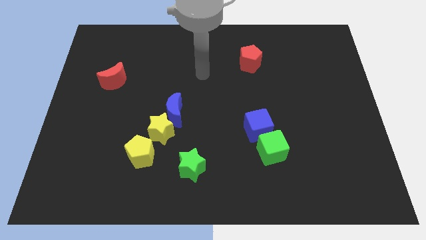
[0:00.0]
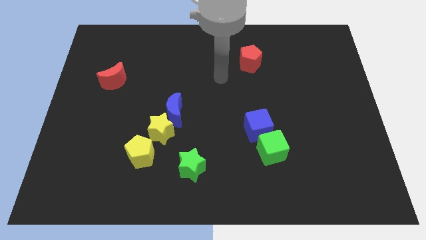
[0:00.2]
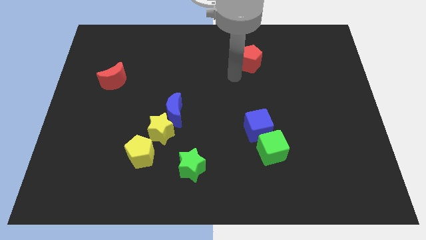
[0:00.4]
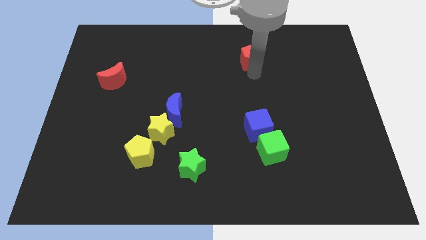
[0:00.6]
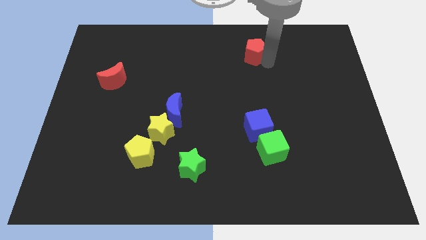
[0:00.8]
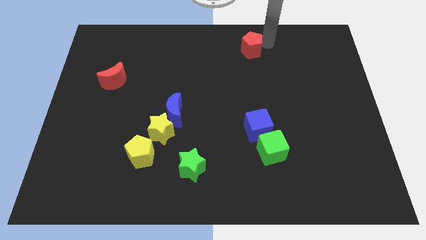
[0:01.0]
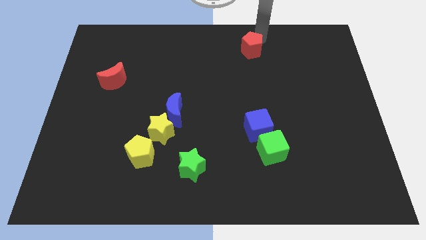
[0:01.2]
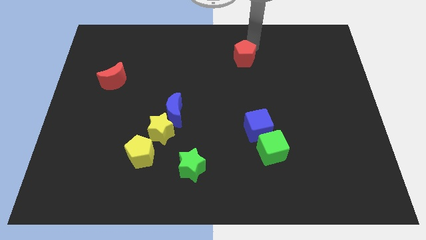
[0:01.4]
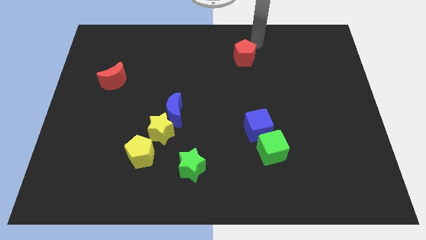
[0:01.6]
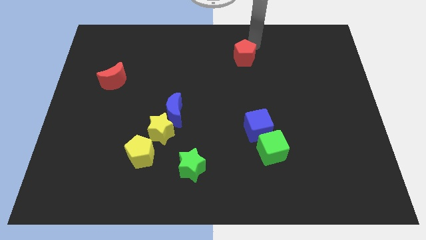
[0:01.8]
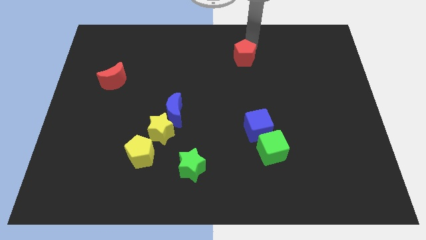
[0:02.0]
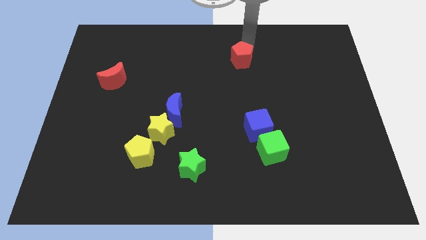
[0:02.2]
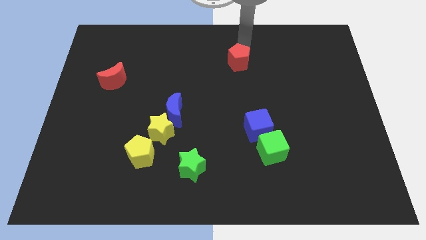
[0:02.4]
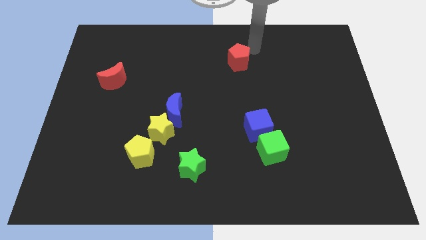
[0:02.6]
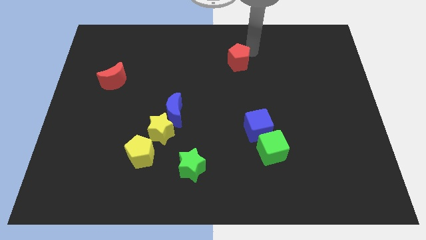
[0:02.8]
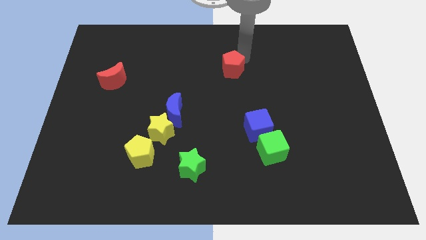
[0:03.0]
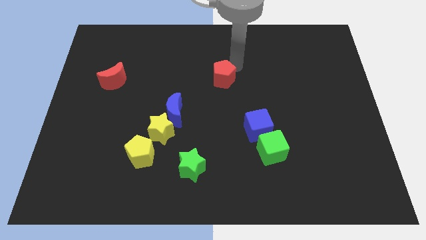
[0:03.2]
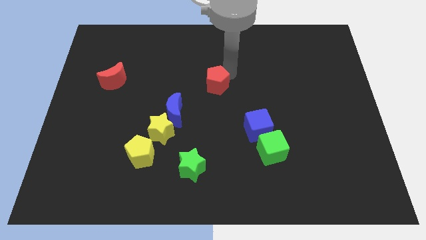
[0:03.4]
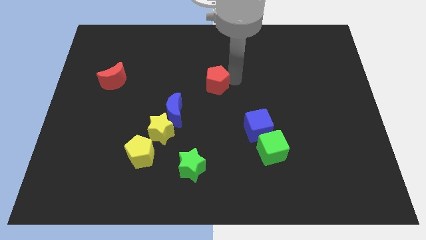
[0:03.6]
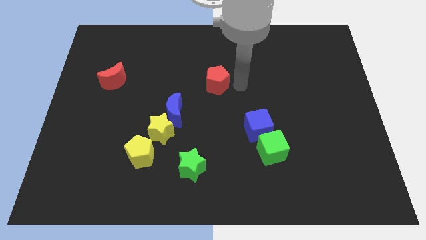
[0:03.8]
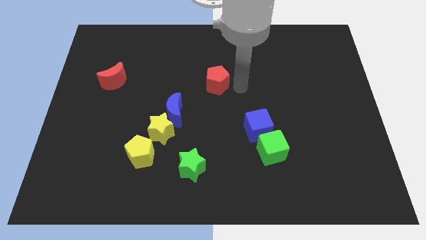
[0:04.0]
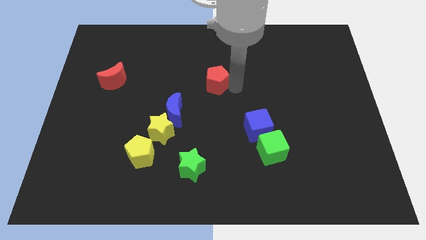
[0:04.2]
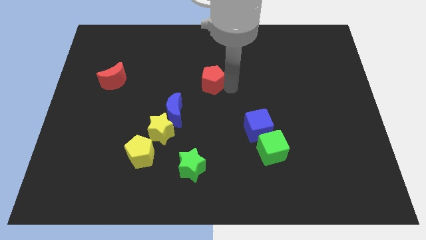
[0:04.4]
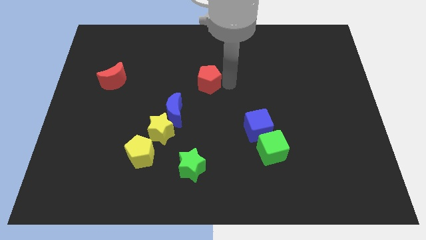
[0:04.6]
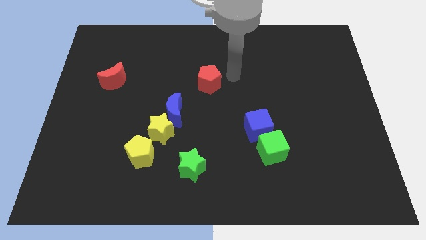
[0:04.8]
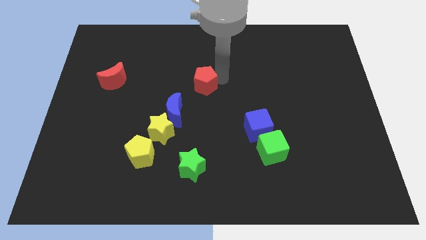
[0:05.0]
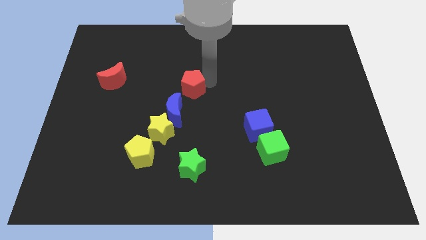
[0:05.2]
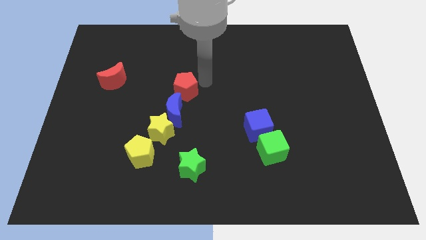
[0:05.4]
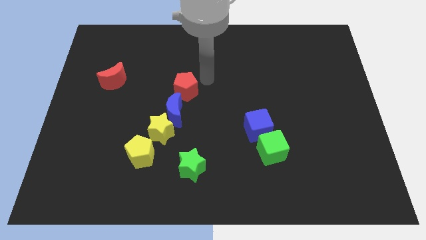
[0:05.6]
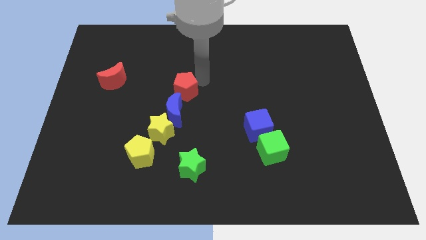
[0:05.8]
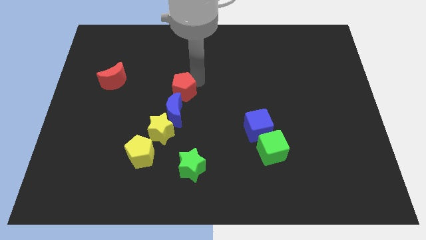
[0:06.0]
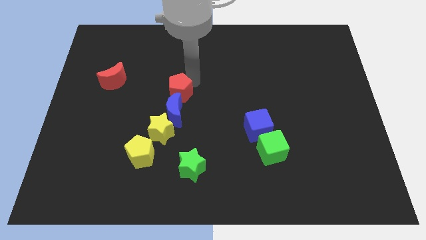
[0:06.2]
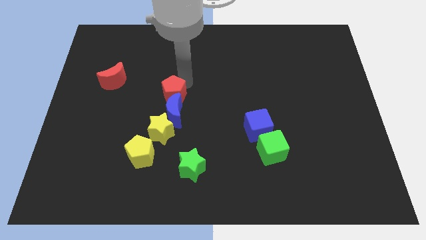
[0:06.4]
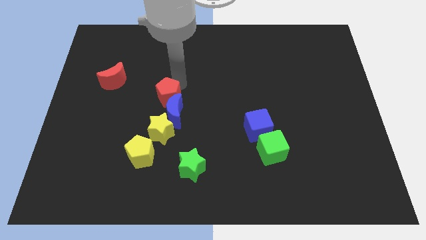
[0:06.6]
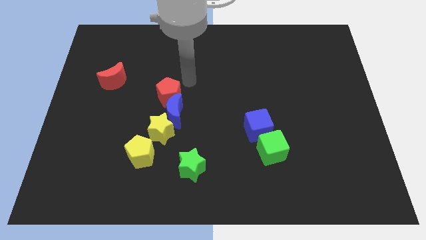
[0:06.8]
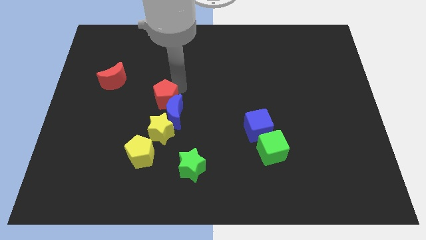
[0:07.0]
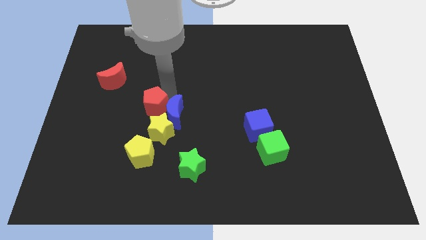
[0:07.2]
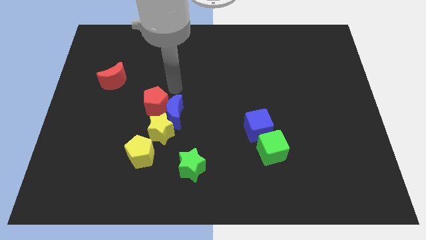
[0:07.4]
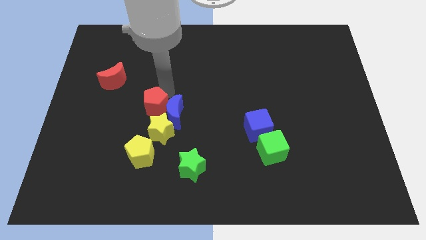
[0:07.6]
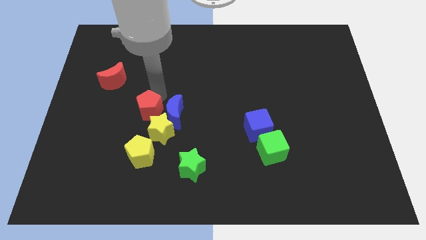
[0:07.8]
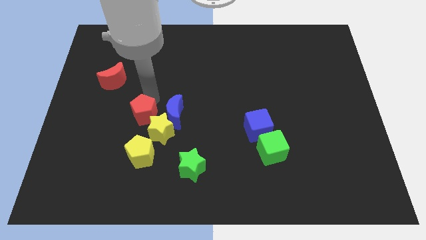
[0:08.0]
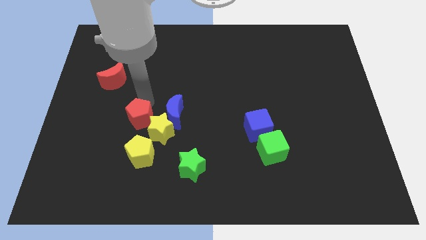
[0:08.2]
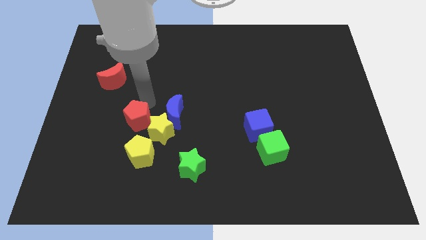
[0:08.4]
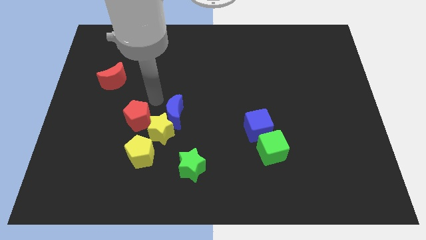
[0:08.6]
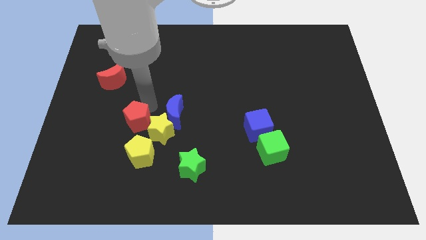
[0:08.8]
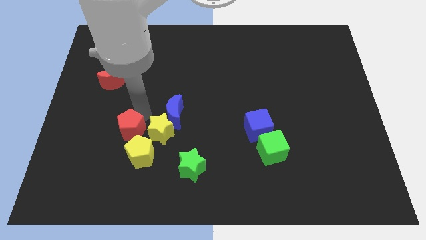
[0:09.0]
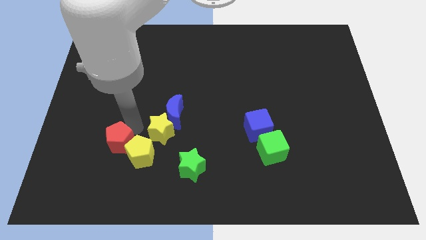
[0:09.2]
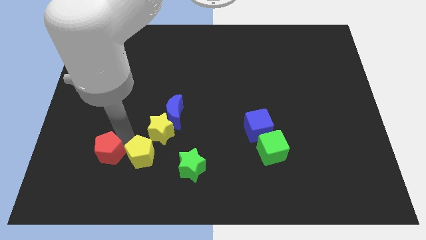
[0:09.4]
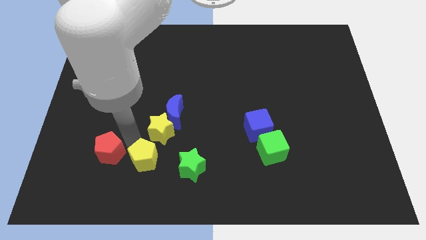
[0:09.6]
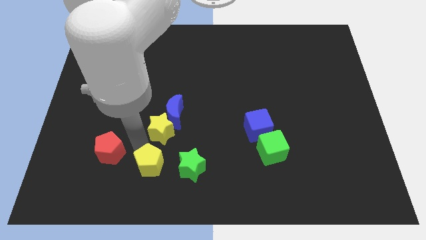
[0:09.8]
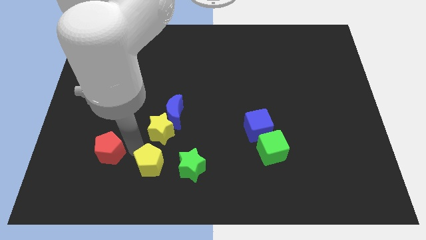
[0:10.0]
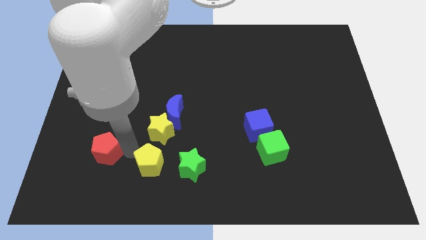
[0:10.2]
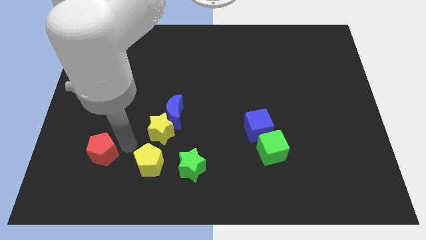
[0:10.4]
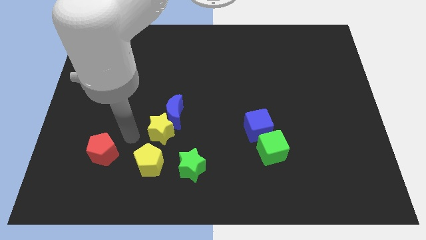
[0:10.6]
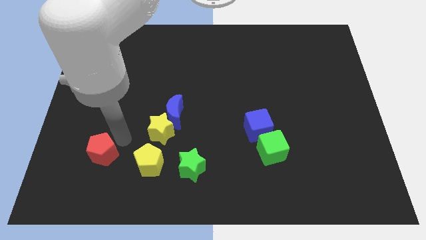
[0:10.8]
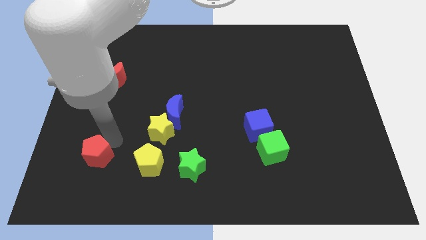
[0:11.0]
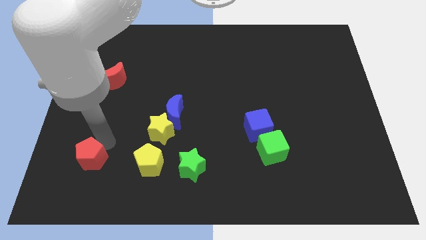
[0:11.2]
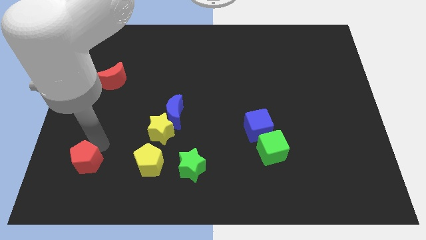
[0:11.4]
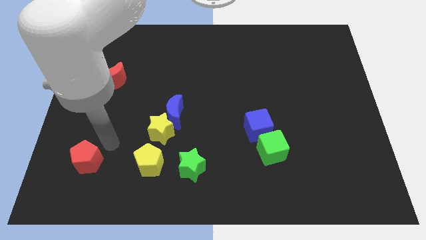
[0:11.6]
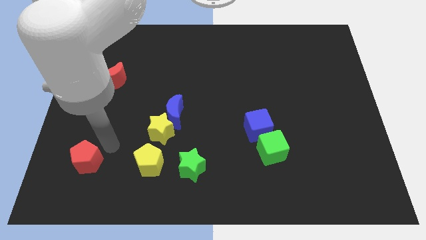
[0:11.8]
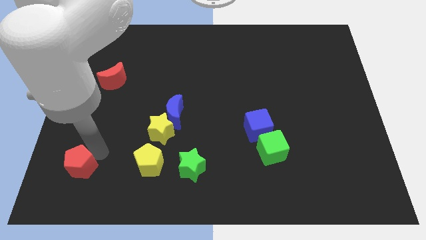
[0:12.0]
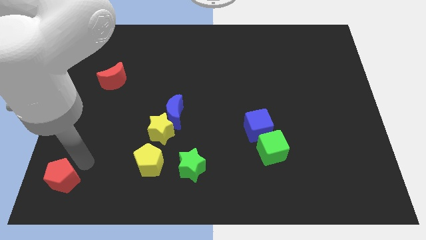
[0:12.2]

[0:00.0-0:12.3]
move the red pentagon to the bottom left
